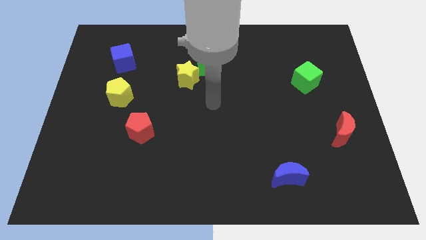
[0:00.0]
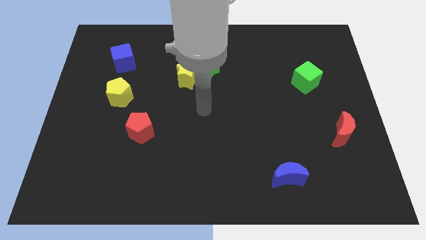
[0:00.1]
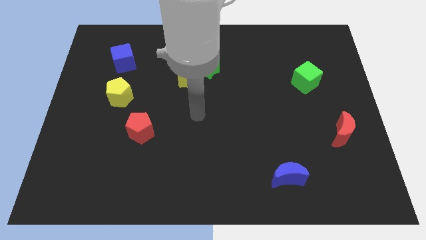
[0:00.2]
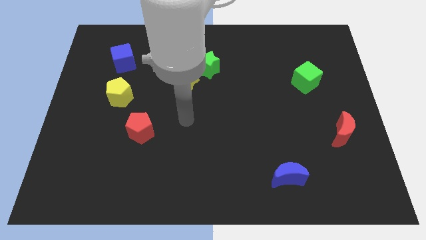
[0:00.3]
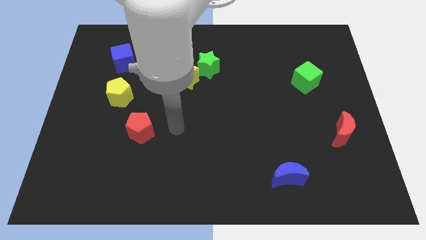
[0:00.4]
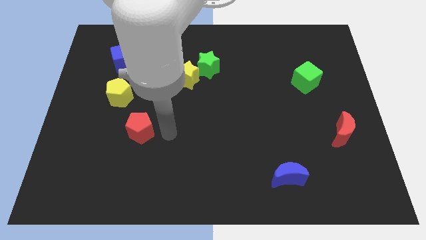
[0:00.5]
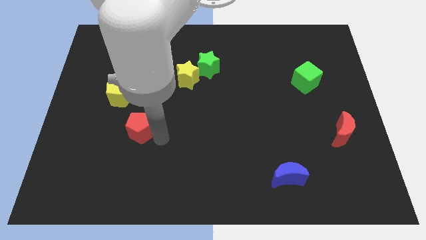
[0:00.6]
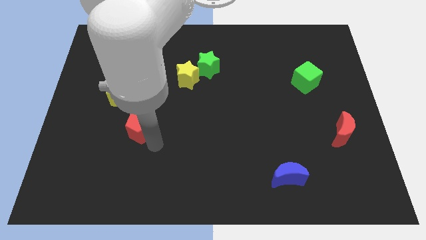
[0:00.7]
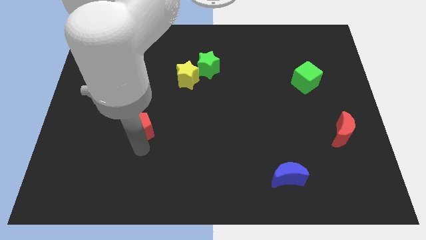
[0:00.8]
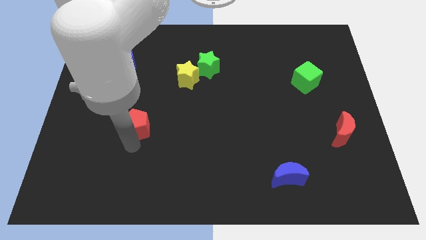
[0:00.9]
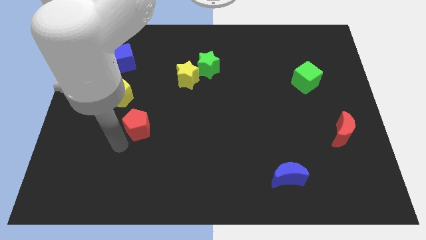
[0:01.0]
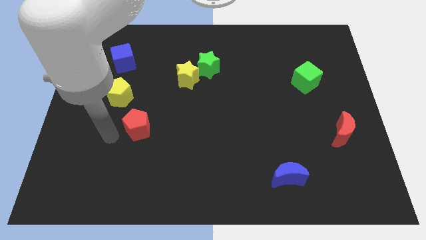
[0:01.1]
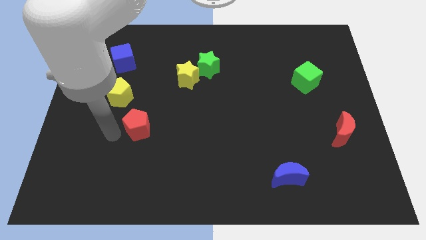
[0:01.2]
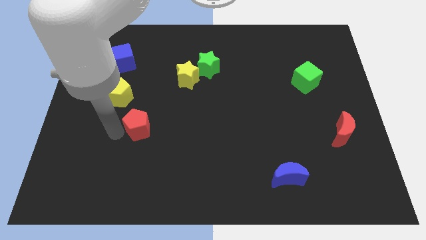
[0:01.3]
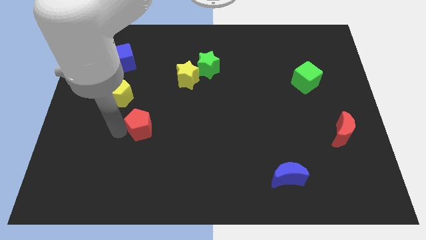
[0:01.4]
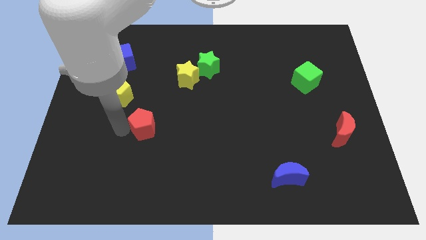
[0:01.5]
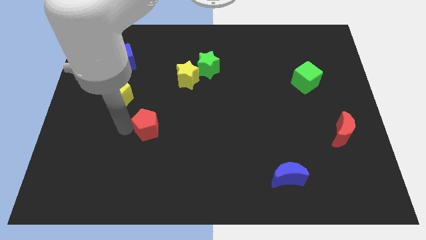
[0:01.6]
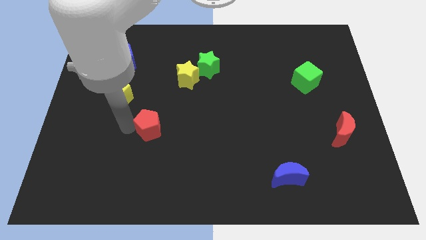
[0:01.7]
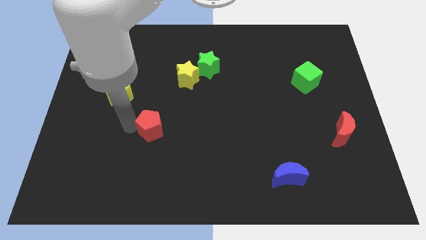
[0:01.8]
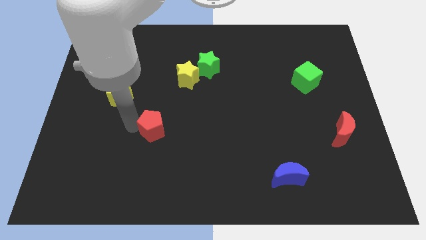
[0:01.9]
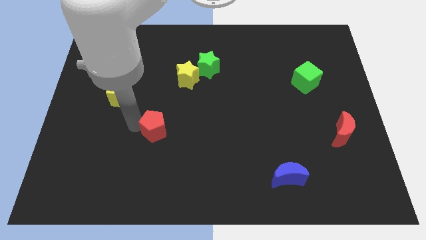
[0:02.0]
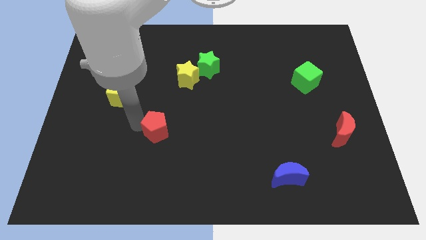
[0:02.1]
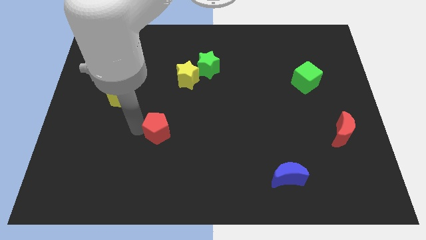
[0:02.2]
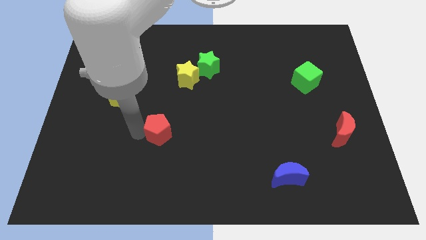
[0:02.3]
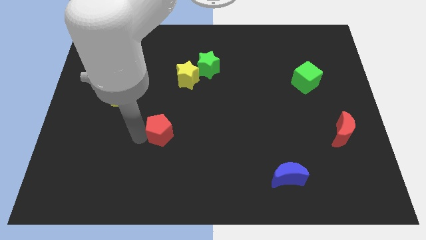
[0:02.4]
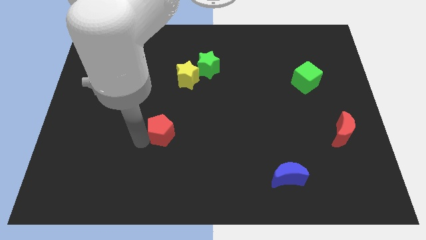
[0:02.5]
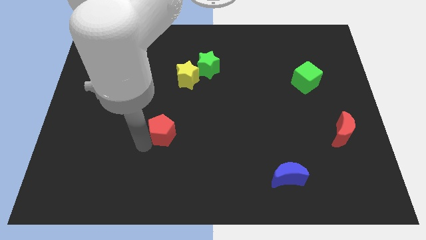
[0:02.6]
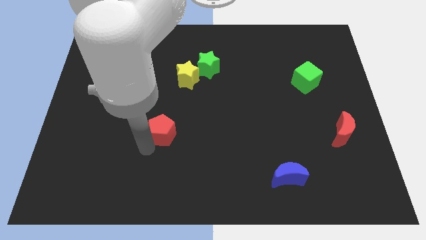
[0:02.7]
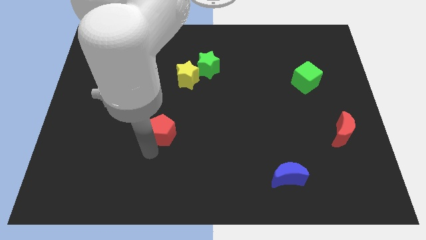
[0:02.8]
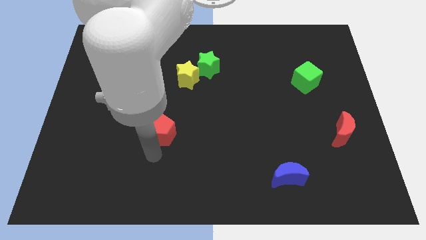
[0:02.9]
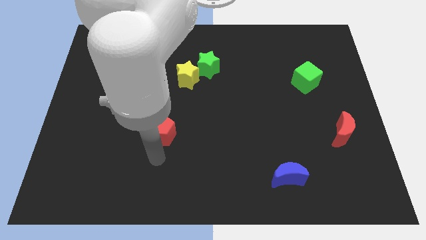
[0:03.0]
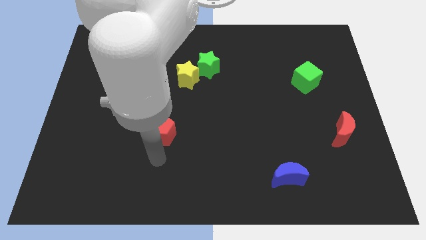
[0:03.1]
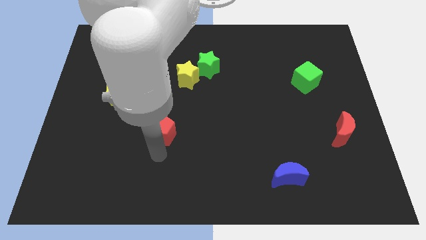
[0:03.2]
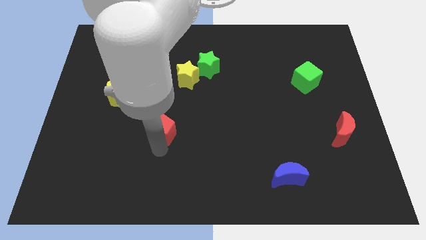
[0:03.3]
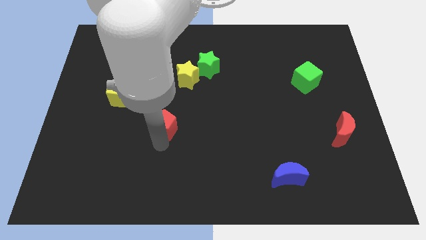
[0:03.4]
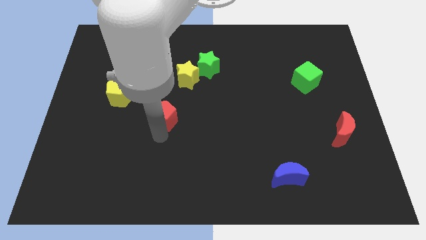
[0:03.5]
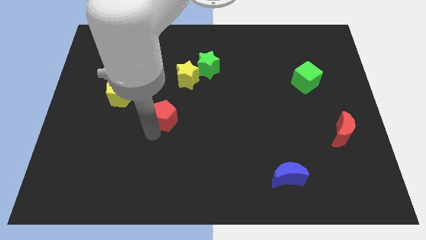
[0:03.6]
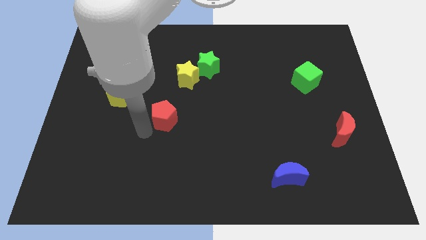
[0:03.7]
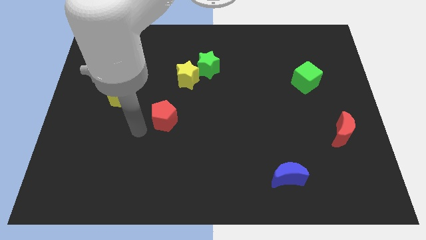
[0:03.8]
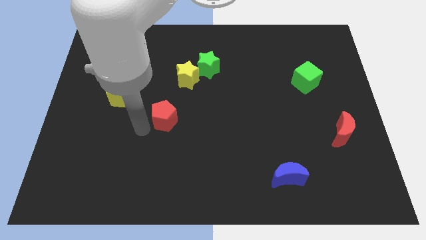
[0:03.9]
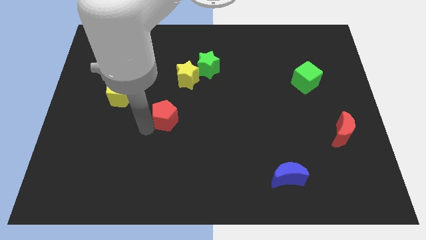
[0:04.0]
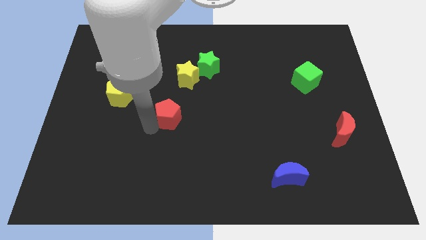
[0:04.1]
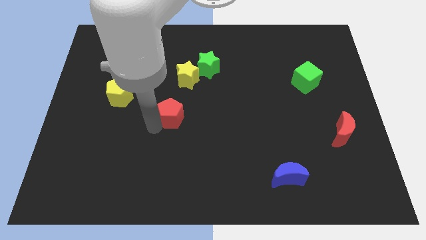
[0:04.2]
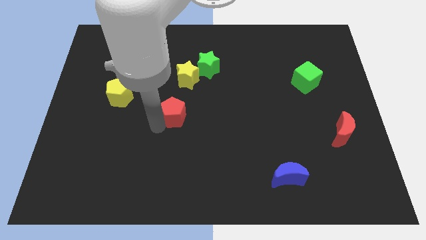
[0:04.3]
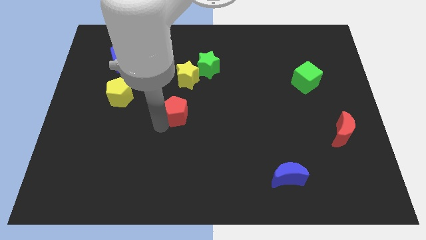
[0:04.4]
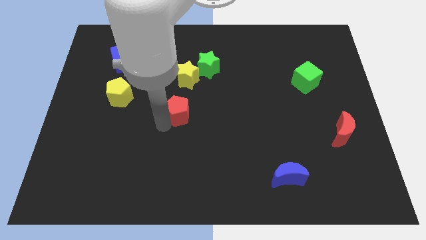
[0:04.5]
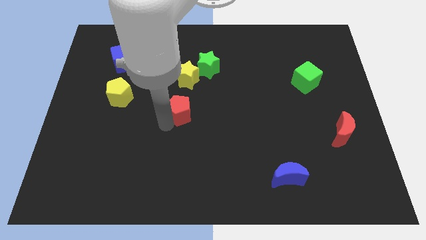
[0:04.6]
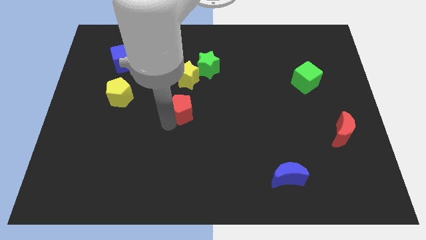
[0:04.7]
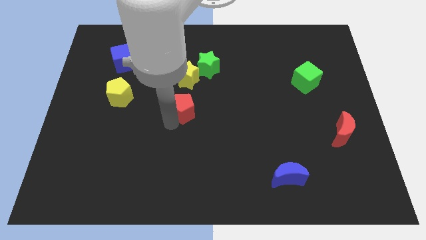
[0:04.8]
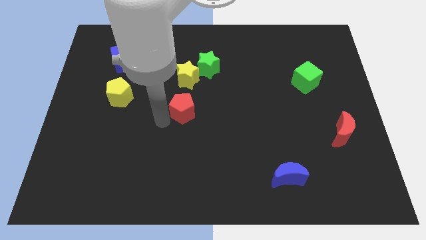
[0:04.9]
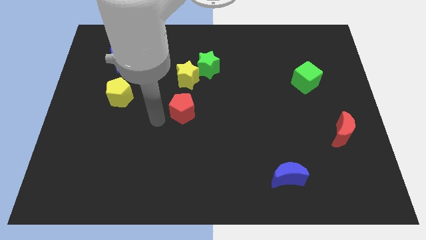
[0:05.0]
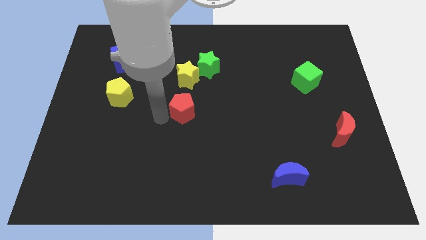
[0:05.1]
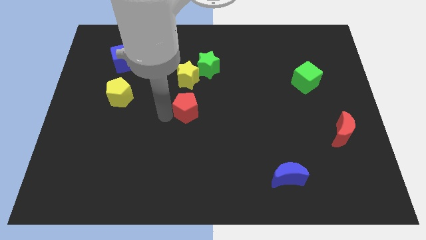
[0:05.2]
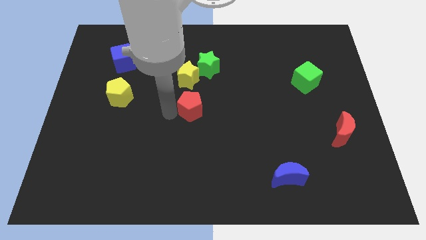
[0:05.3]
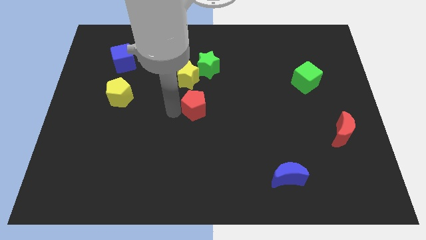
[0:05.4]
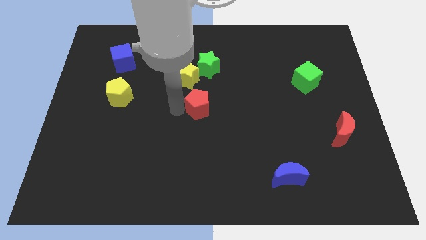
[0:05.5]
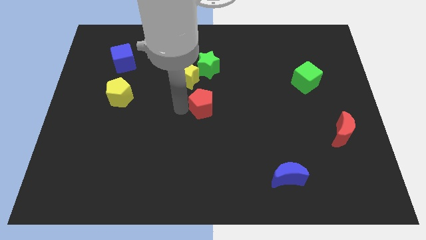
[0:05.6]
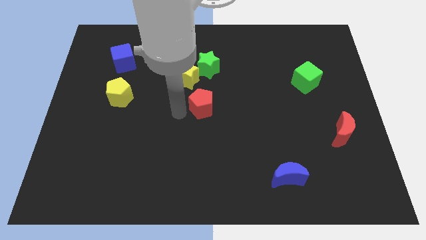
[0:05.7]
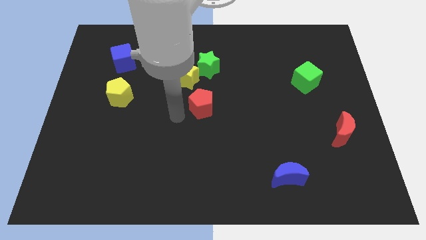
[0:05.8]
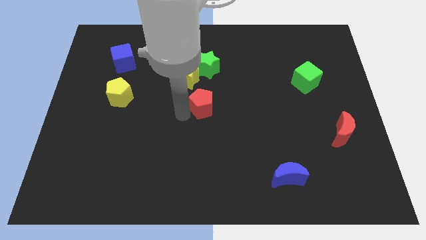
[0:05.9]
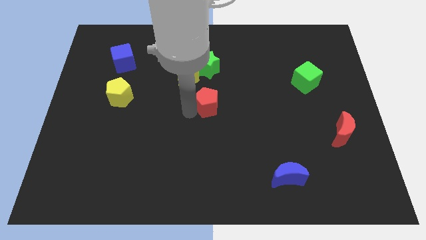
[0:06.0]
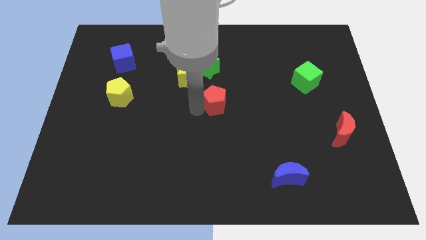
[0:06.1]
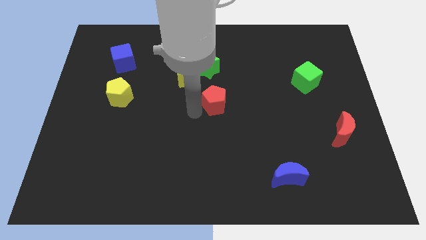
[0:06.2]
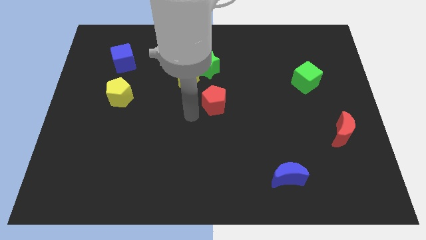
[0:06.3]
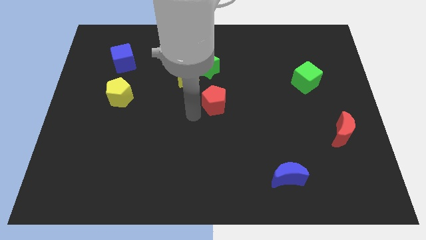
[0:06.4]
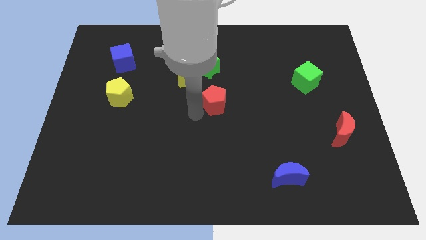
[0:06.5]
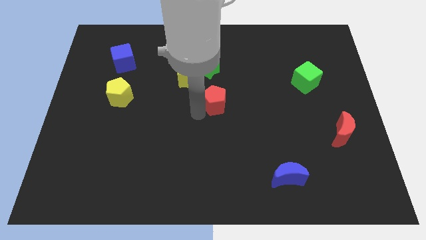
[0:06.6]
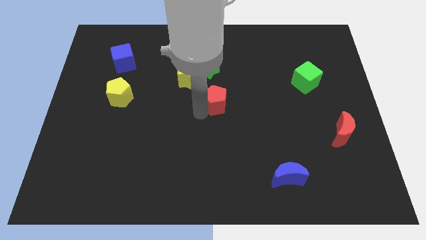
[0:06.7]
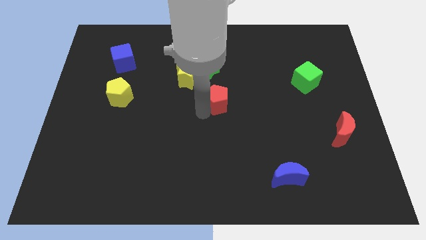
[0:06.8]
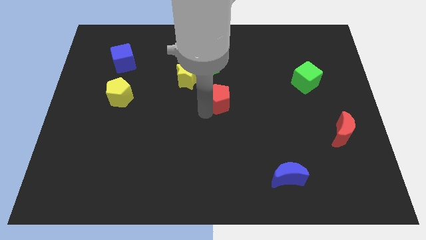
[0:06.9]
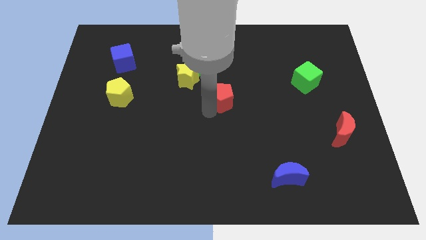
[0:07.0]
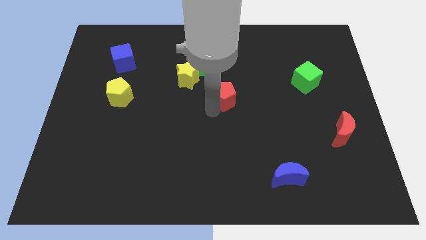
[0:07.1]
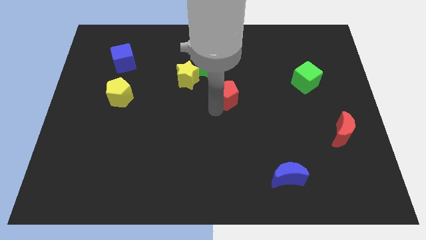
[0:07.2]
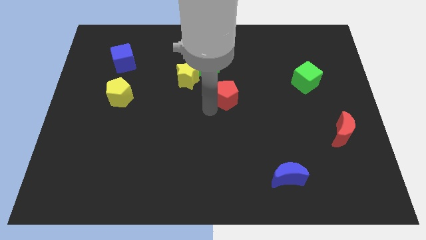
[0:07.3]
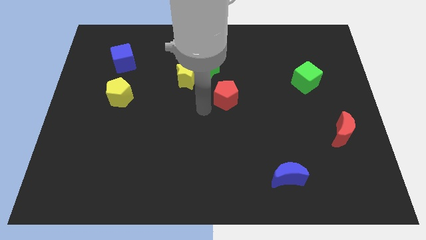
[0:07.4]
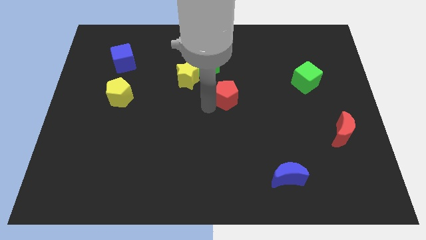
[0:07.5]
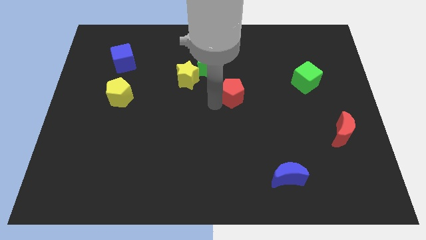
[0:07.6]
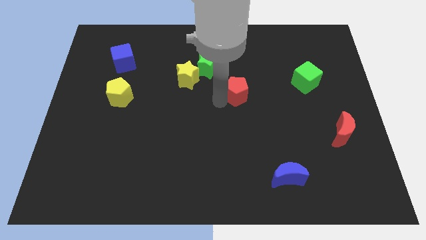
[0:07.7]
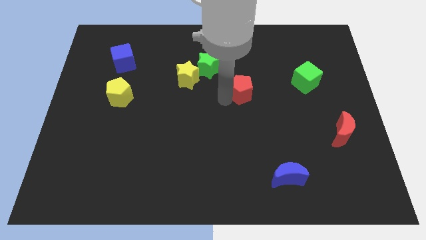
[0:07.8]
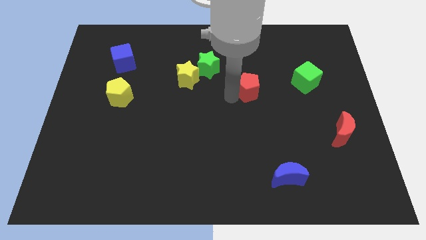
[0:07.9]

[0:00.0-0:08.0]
slide the red pentagon left of the green cube
